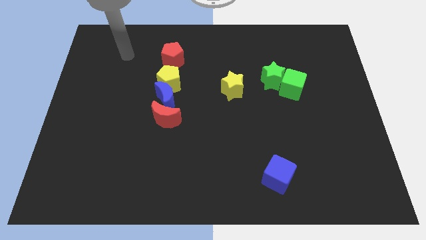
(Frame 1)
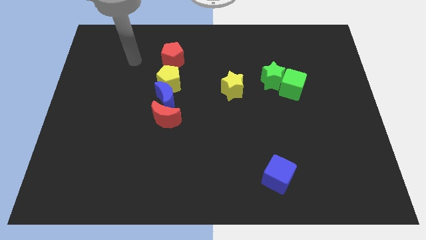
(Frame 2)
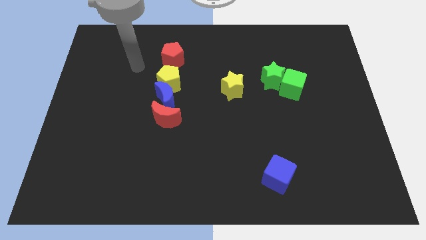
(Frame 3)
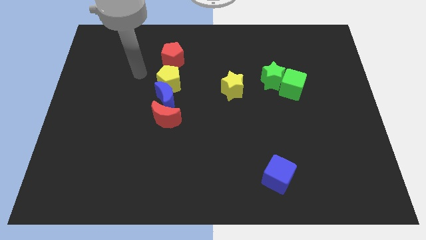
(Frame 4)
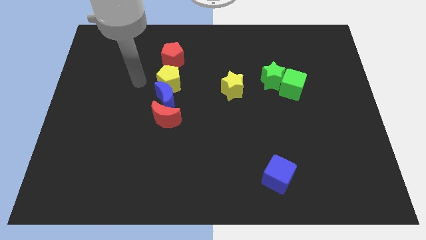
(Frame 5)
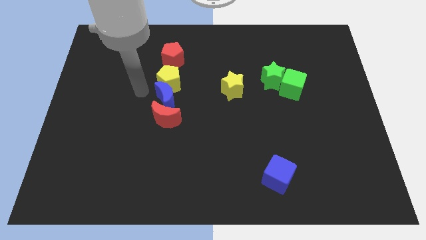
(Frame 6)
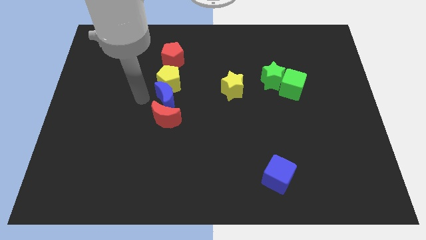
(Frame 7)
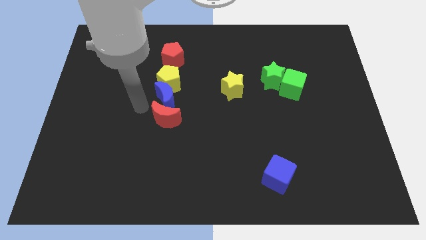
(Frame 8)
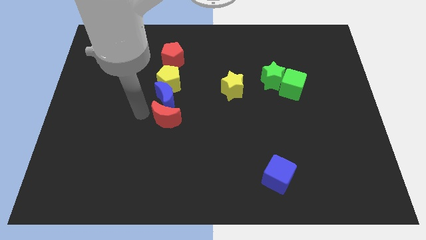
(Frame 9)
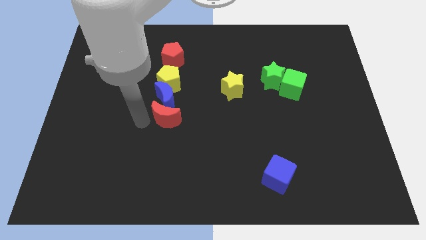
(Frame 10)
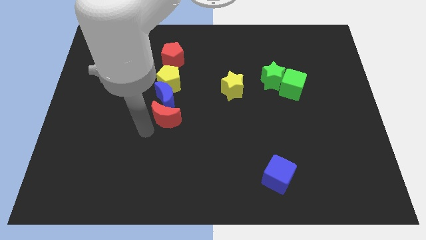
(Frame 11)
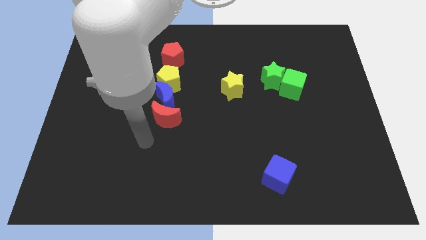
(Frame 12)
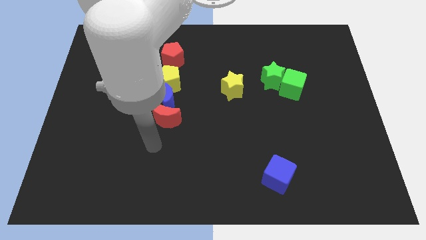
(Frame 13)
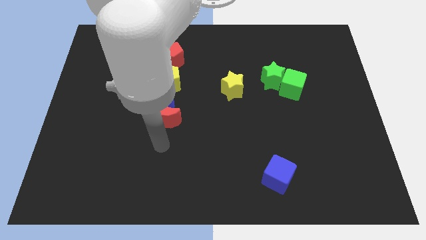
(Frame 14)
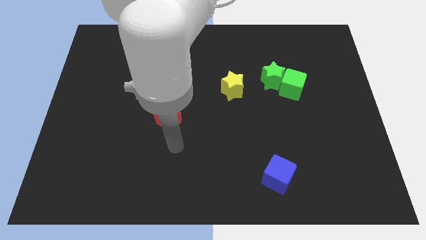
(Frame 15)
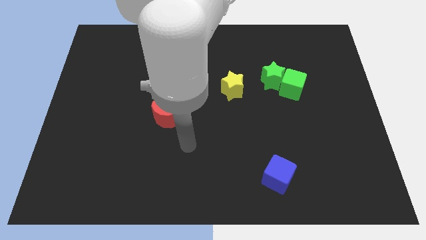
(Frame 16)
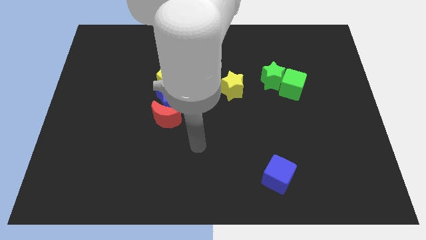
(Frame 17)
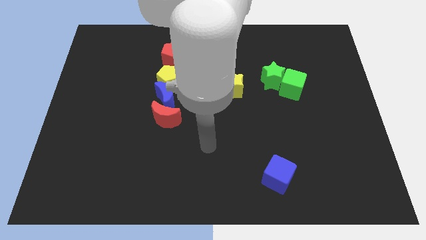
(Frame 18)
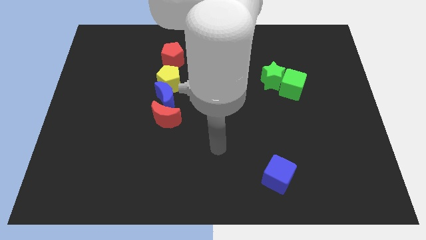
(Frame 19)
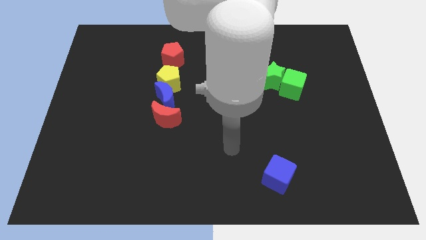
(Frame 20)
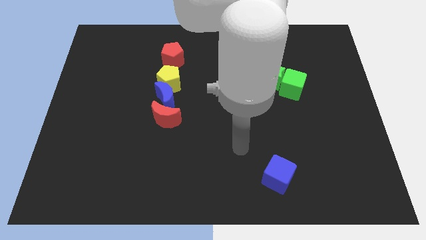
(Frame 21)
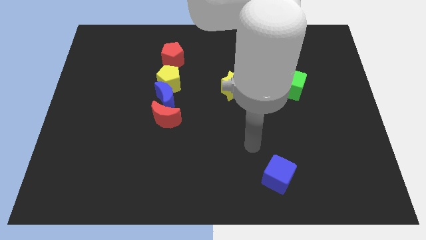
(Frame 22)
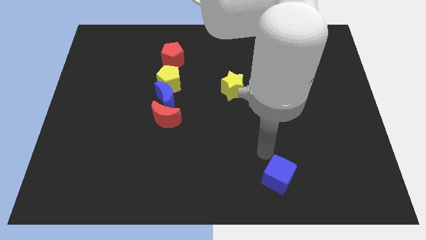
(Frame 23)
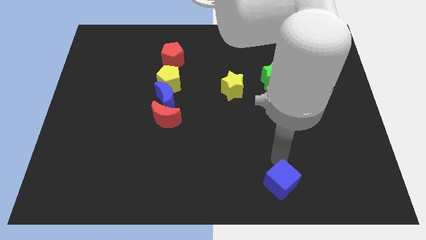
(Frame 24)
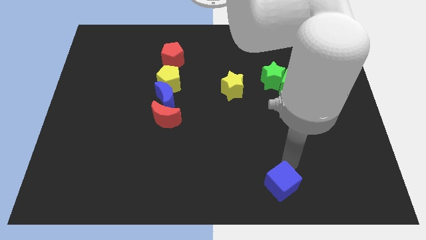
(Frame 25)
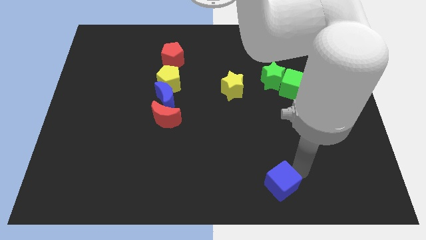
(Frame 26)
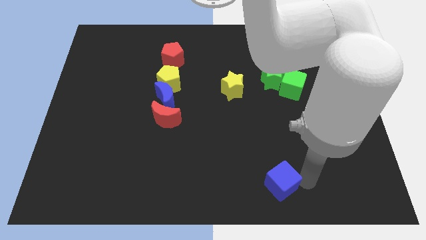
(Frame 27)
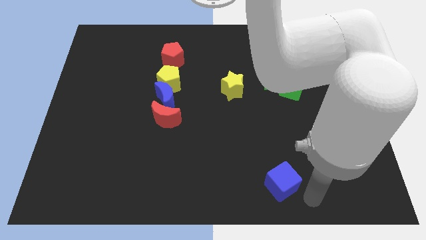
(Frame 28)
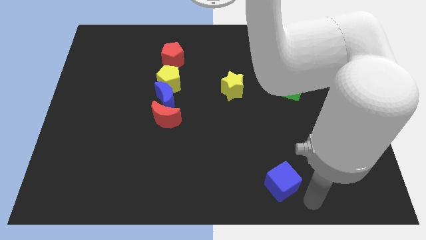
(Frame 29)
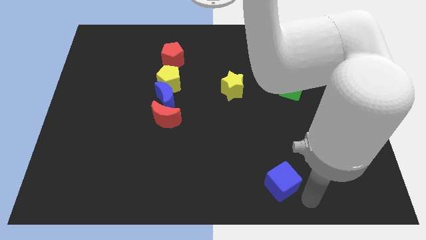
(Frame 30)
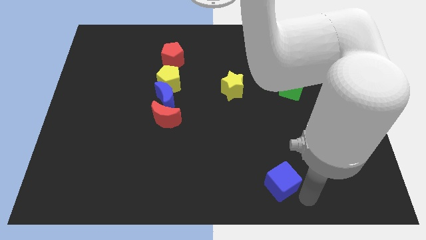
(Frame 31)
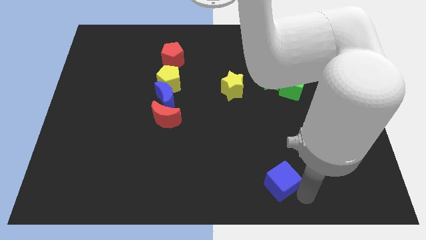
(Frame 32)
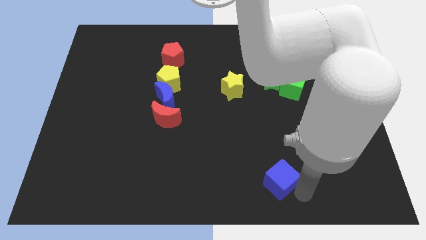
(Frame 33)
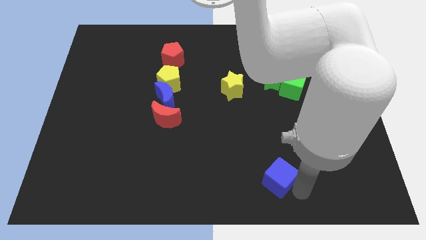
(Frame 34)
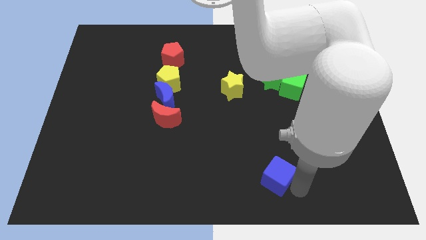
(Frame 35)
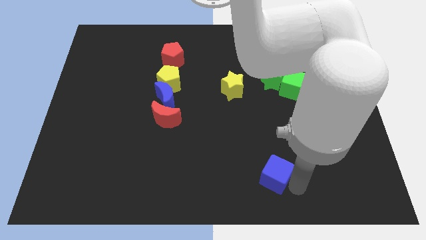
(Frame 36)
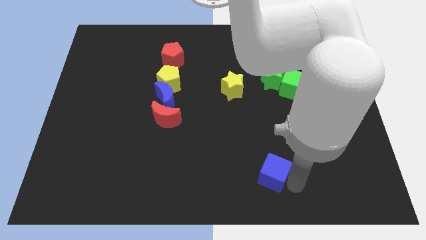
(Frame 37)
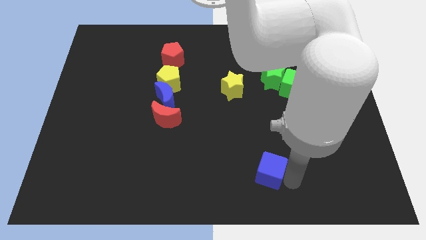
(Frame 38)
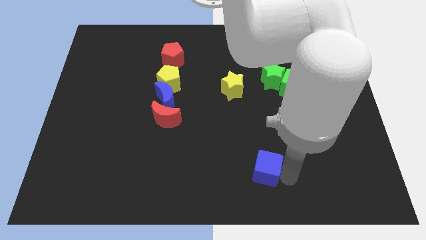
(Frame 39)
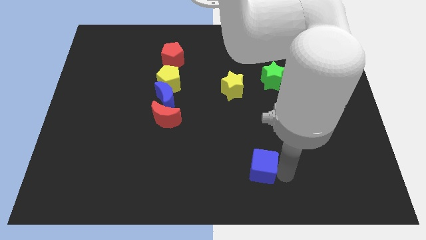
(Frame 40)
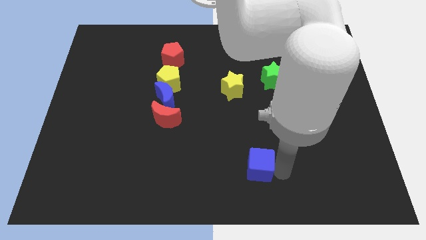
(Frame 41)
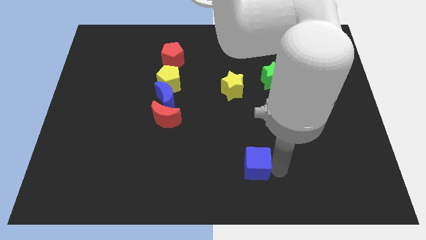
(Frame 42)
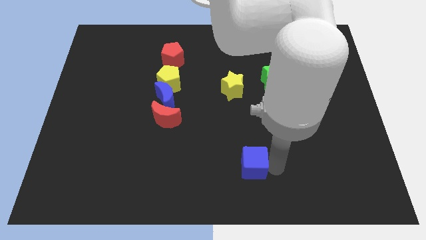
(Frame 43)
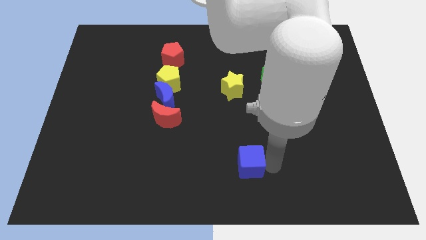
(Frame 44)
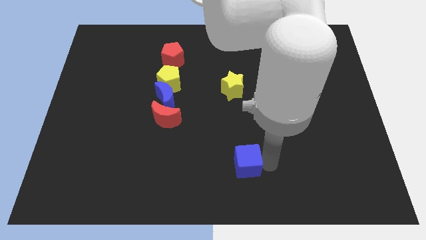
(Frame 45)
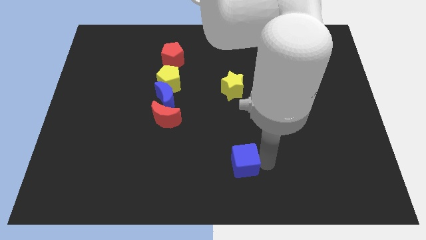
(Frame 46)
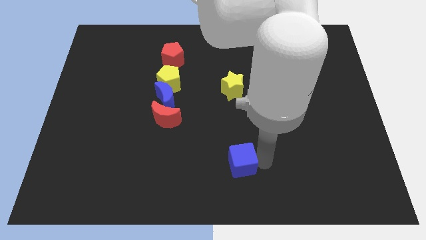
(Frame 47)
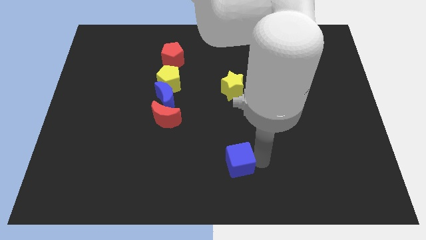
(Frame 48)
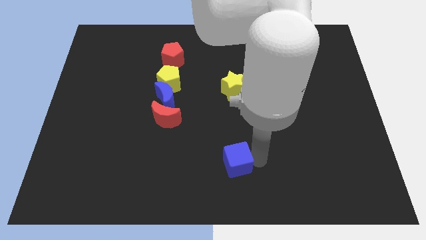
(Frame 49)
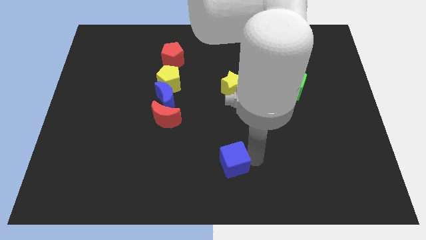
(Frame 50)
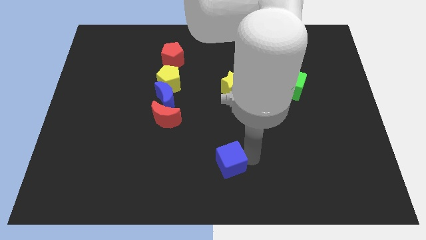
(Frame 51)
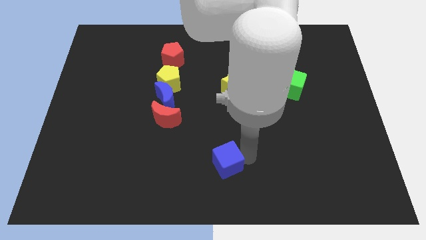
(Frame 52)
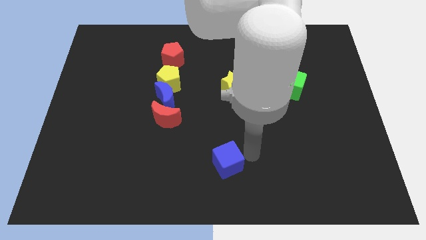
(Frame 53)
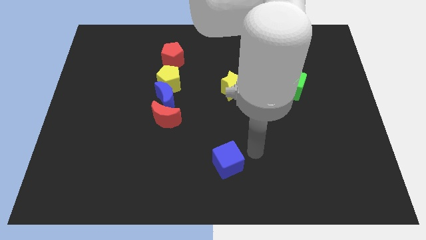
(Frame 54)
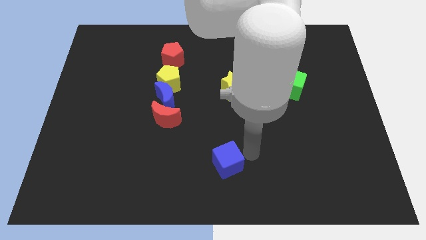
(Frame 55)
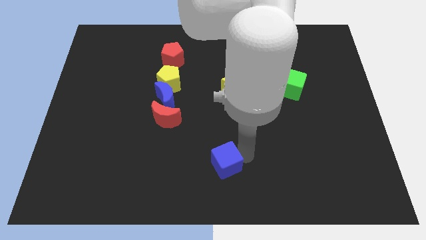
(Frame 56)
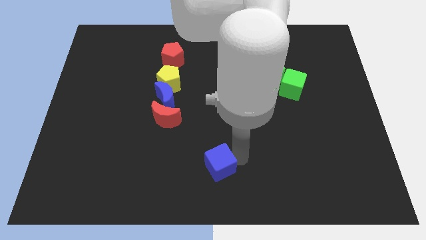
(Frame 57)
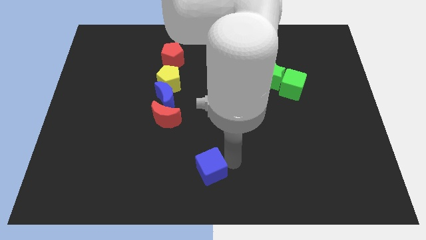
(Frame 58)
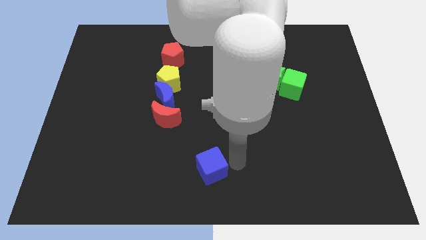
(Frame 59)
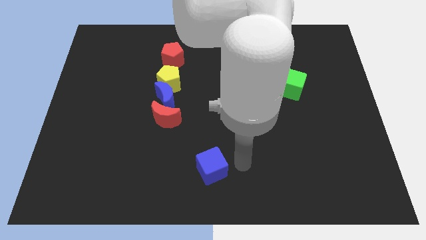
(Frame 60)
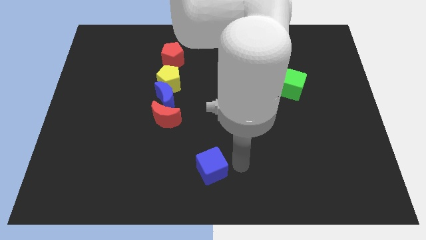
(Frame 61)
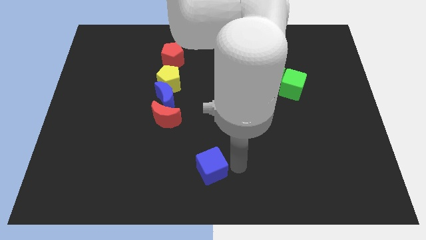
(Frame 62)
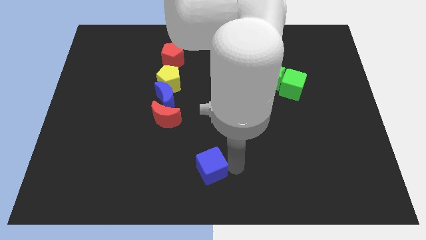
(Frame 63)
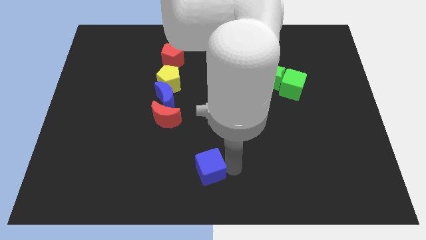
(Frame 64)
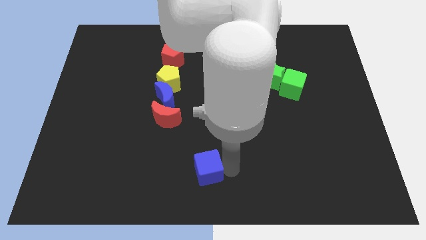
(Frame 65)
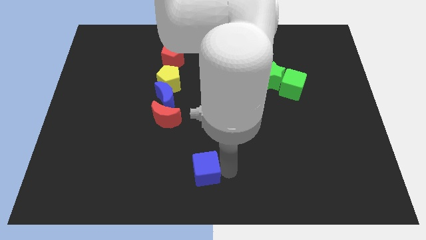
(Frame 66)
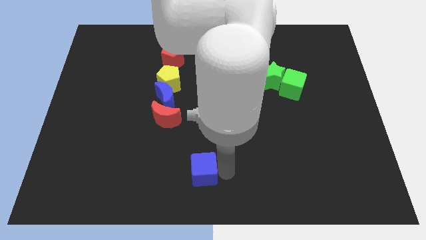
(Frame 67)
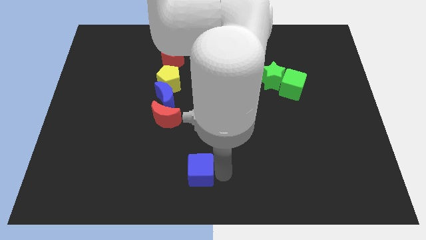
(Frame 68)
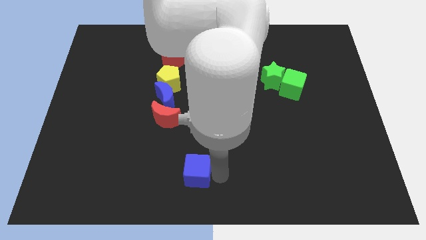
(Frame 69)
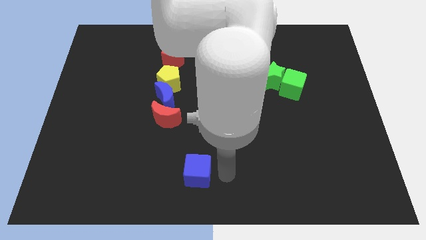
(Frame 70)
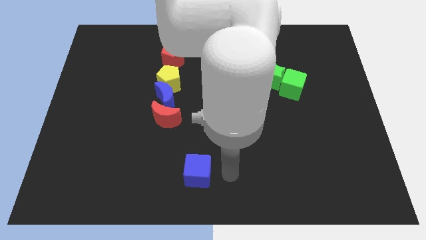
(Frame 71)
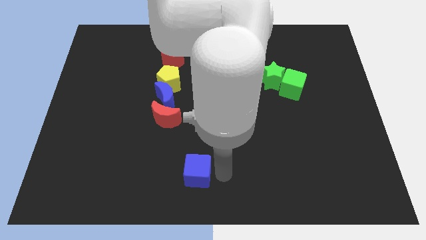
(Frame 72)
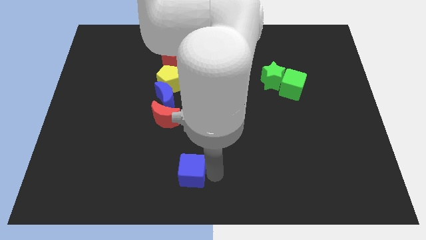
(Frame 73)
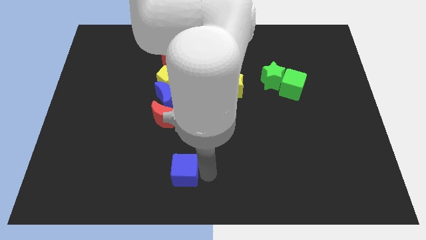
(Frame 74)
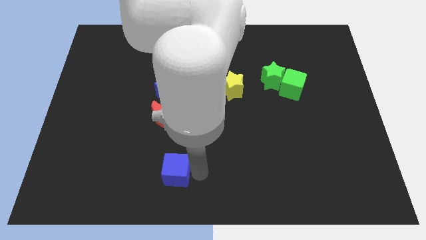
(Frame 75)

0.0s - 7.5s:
push the blue cube to the left

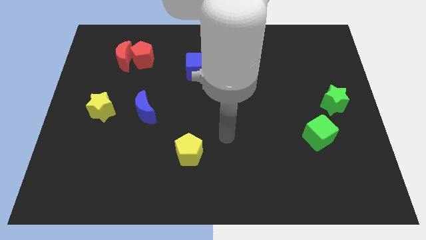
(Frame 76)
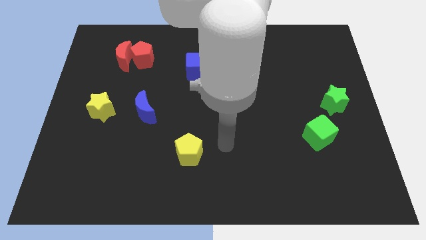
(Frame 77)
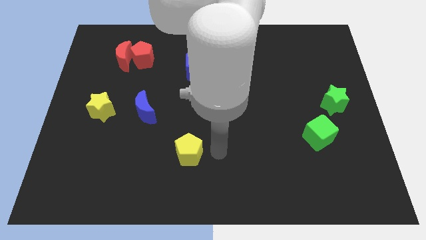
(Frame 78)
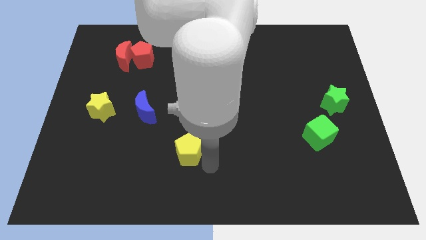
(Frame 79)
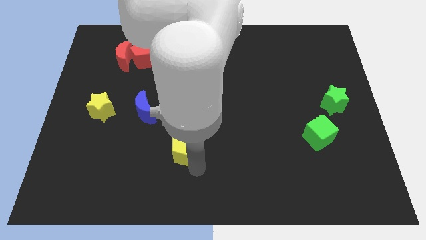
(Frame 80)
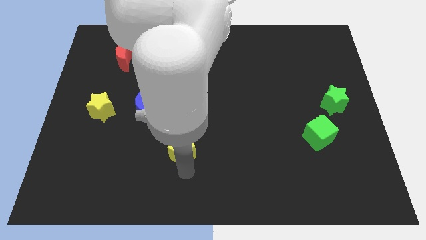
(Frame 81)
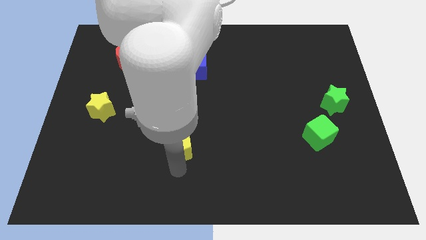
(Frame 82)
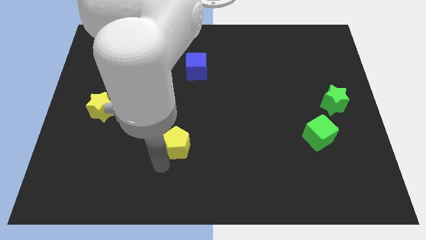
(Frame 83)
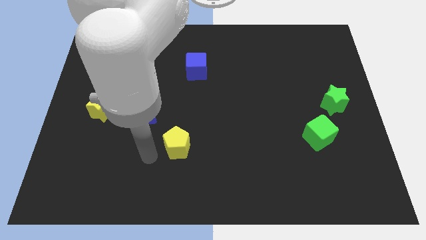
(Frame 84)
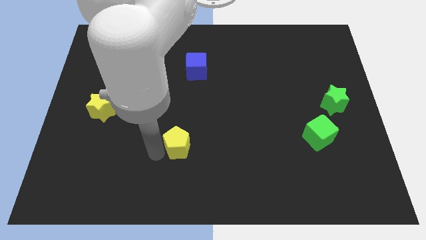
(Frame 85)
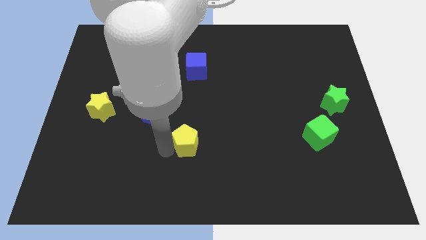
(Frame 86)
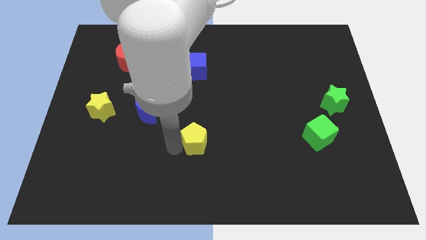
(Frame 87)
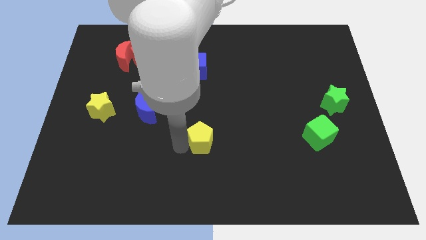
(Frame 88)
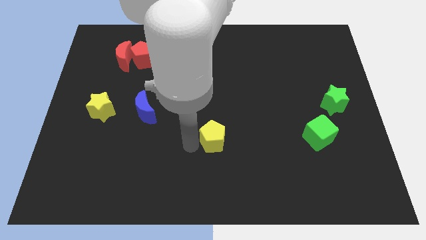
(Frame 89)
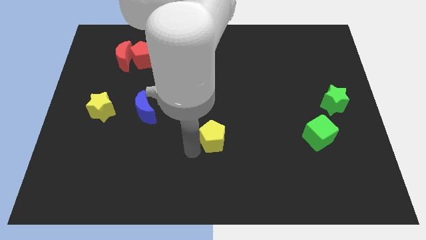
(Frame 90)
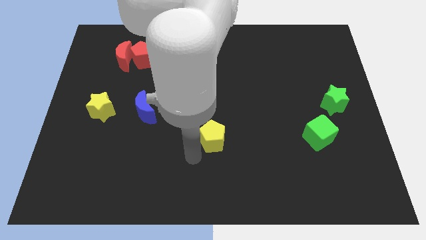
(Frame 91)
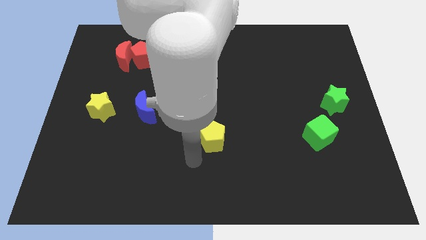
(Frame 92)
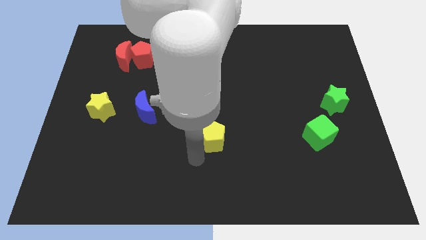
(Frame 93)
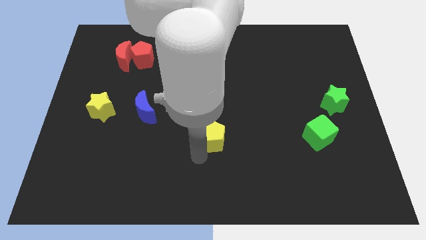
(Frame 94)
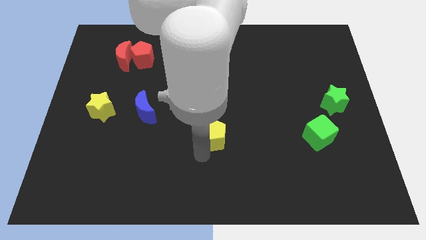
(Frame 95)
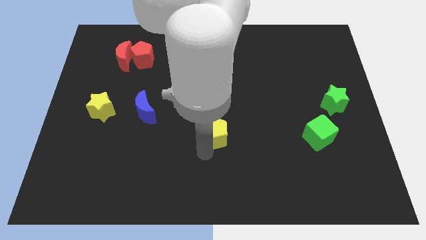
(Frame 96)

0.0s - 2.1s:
slide the yellow pentagon upwards and to the right diagonally a little
